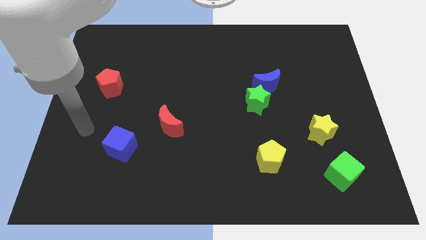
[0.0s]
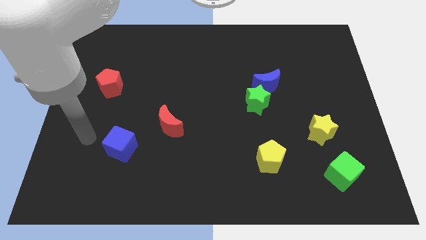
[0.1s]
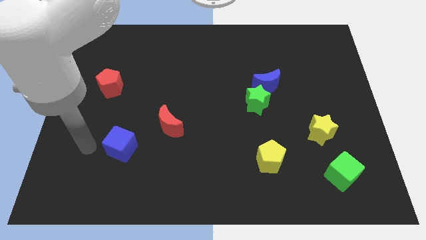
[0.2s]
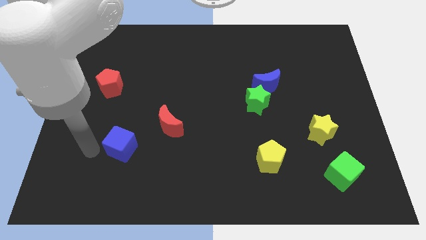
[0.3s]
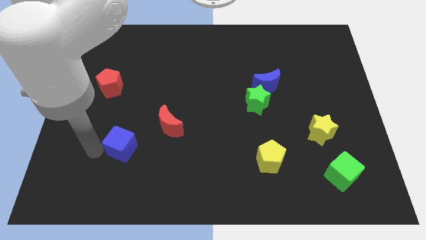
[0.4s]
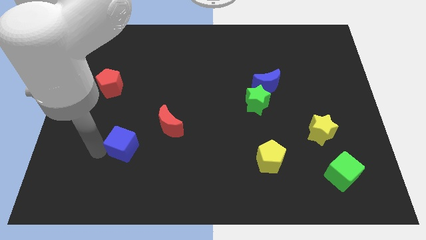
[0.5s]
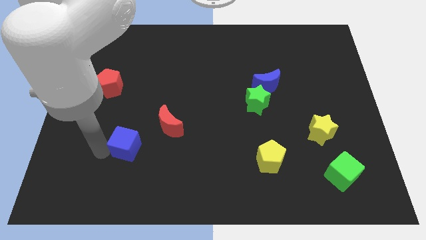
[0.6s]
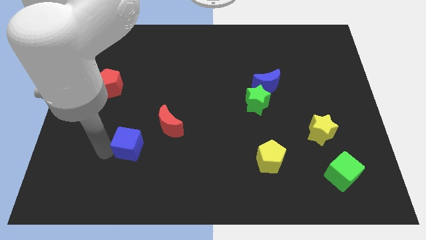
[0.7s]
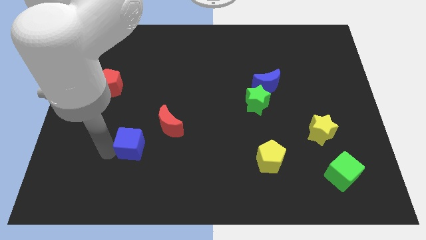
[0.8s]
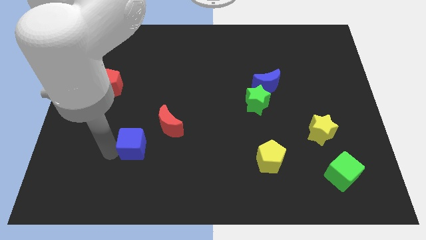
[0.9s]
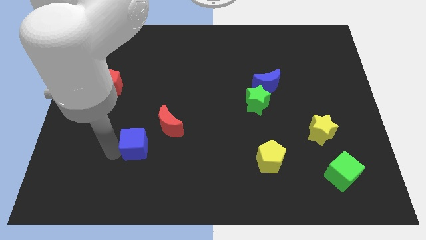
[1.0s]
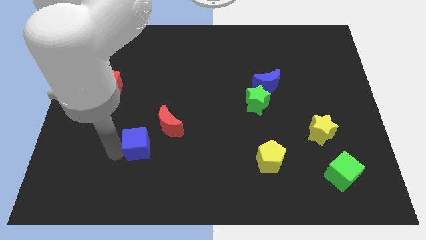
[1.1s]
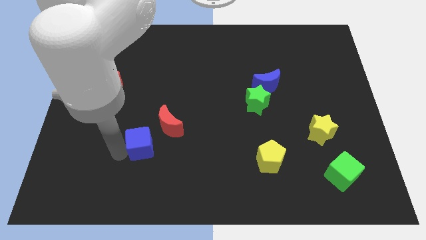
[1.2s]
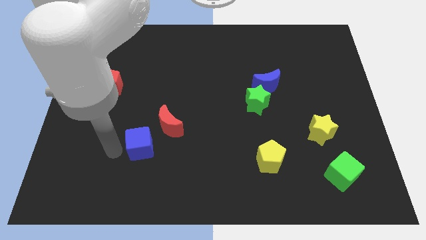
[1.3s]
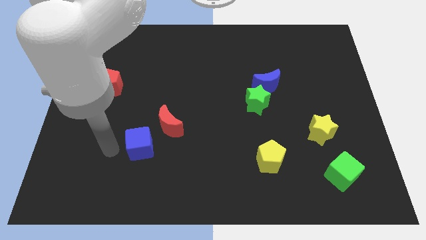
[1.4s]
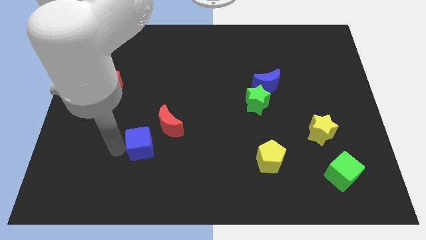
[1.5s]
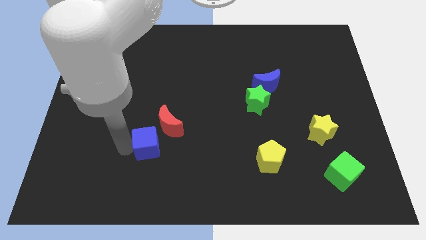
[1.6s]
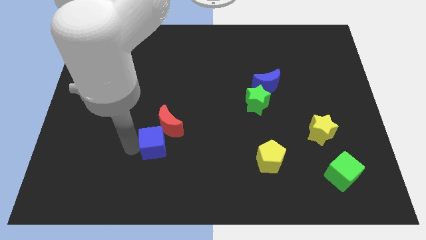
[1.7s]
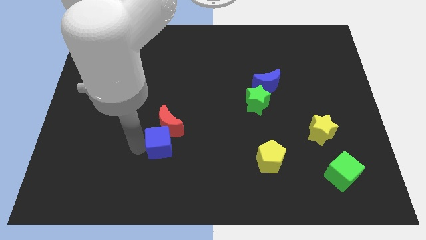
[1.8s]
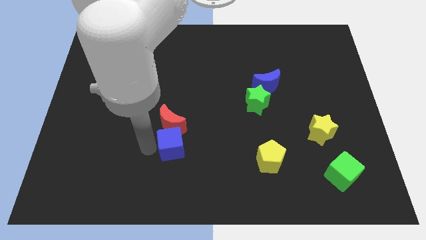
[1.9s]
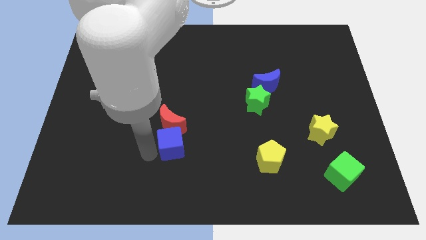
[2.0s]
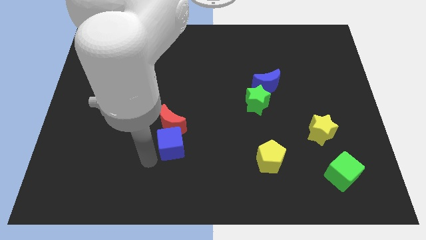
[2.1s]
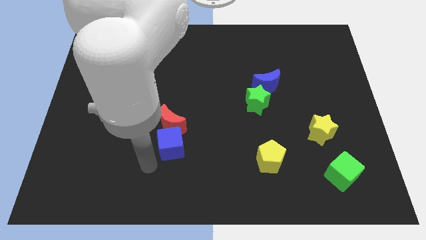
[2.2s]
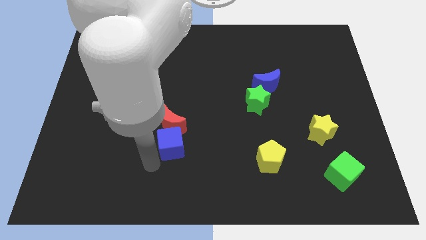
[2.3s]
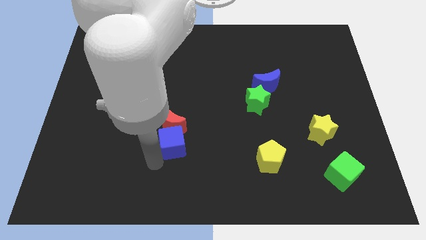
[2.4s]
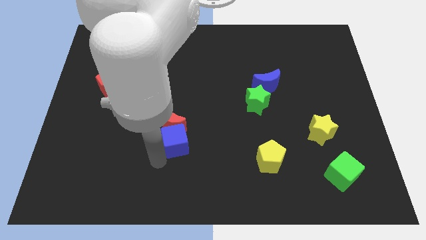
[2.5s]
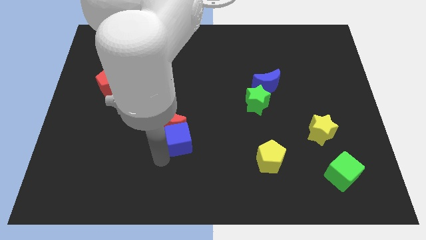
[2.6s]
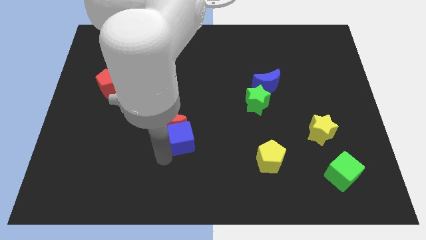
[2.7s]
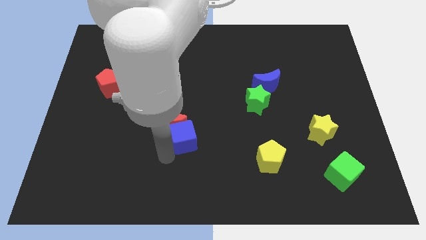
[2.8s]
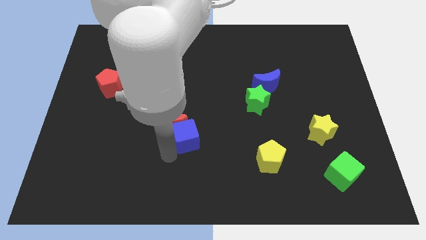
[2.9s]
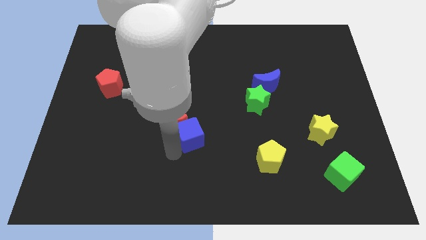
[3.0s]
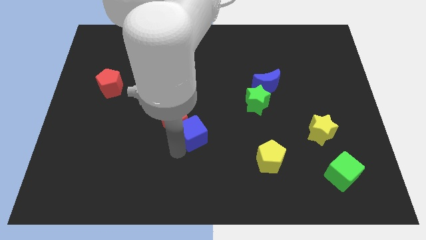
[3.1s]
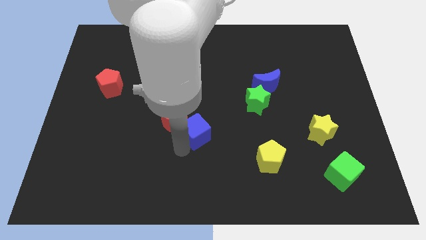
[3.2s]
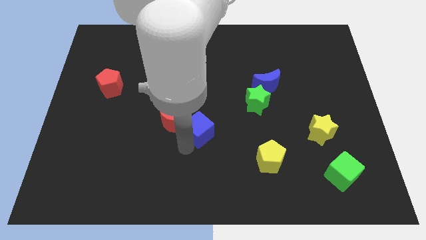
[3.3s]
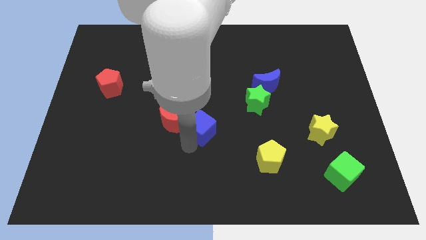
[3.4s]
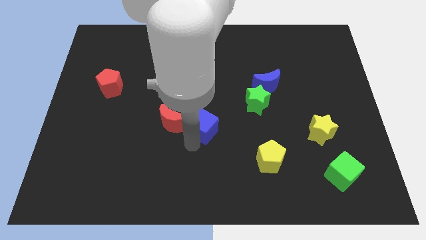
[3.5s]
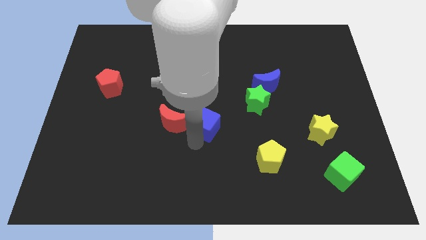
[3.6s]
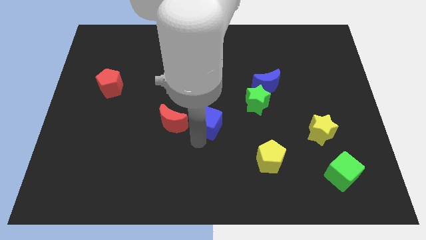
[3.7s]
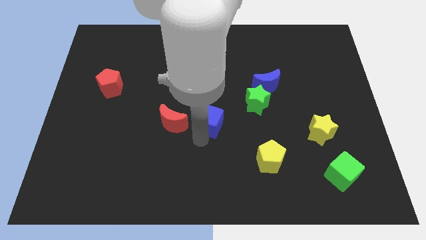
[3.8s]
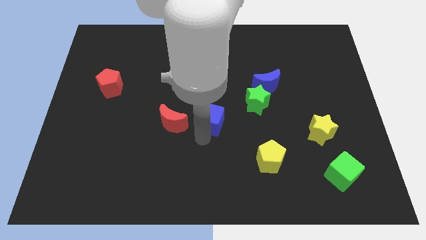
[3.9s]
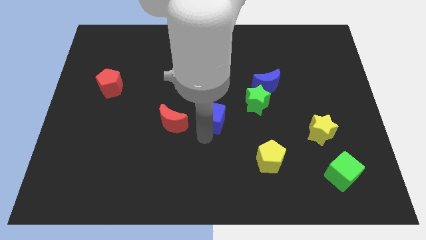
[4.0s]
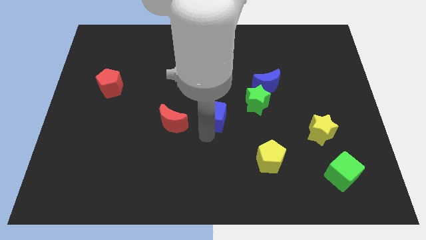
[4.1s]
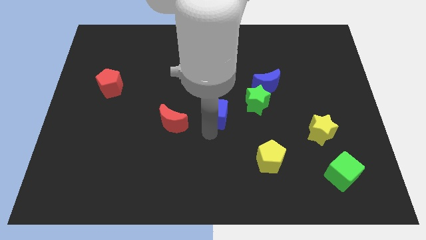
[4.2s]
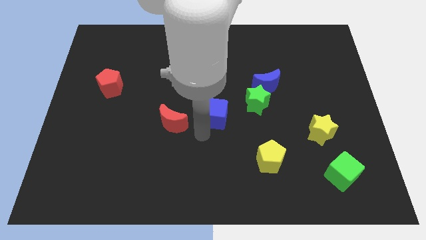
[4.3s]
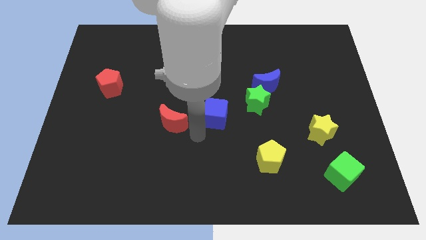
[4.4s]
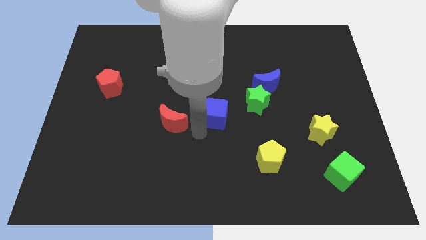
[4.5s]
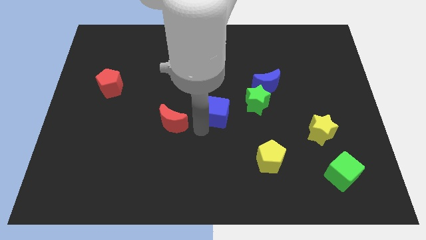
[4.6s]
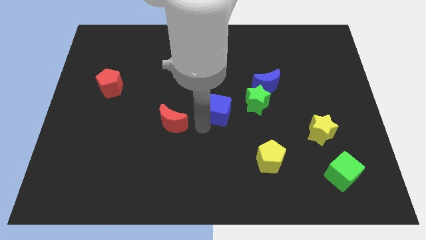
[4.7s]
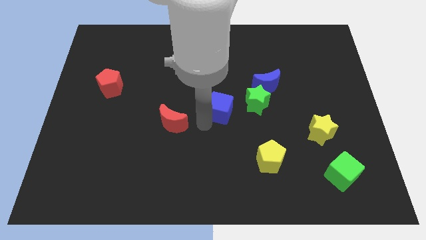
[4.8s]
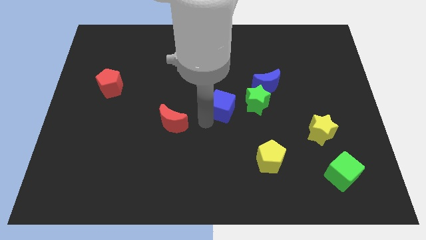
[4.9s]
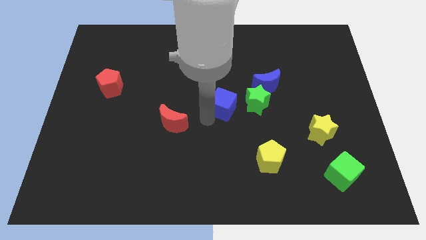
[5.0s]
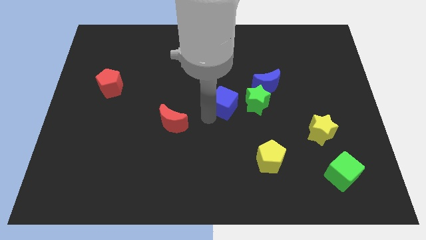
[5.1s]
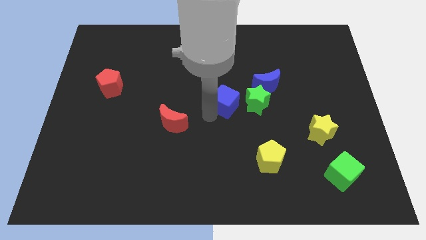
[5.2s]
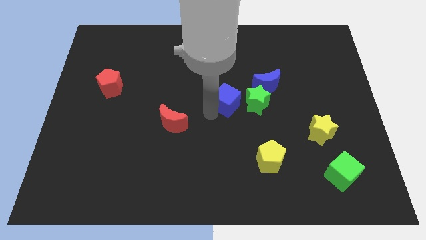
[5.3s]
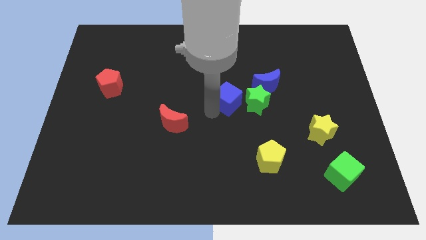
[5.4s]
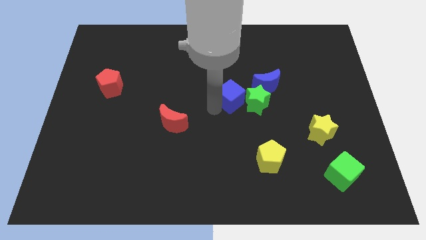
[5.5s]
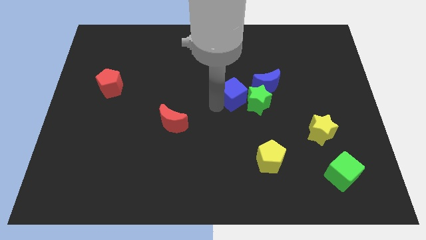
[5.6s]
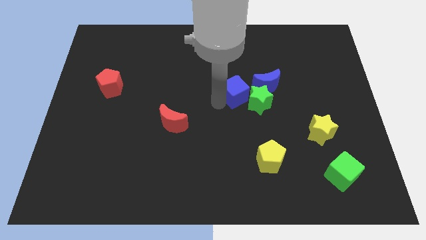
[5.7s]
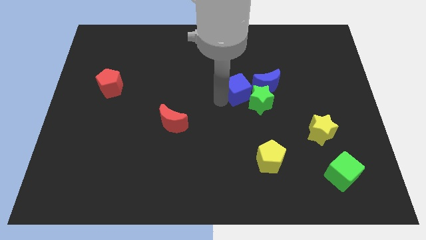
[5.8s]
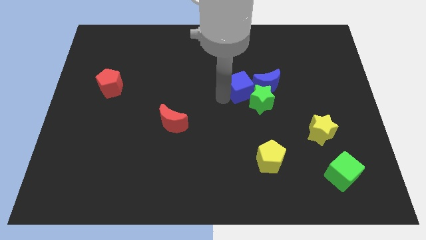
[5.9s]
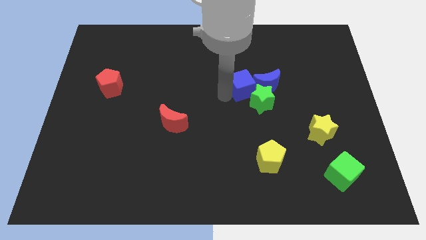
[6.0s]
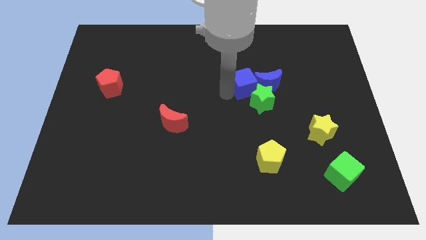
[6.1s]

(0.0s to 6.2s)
slide the blue cube to the blue moon

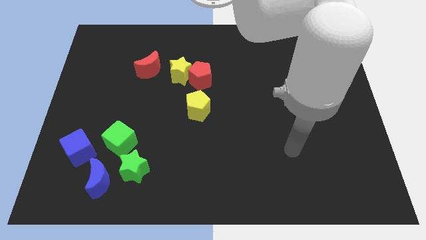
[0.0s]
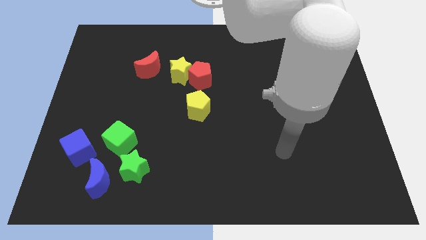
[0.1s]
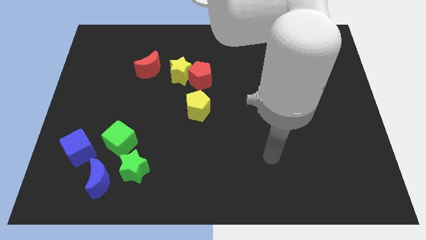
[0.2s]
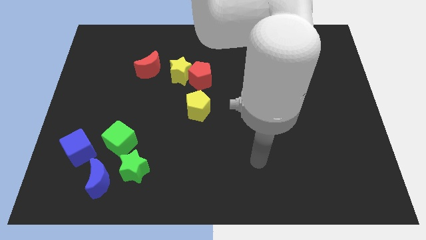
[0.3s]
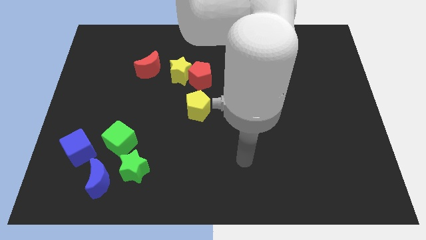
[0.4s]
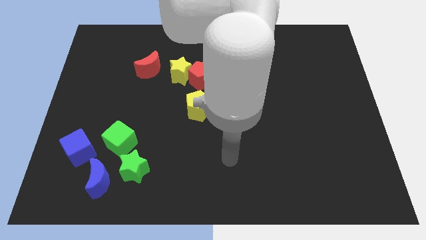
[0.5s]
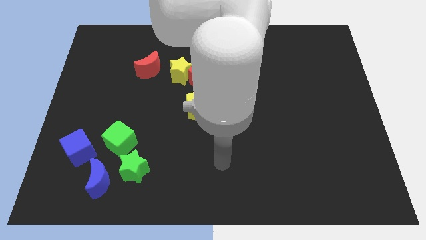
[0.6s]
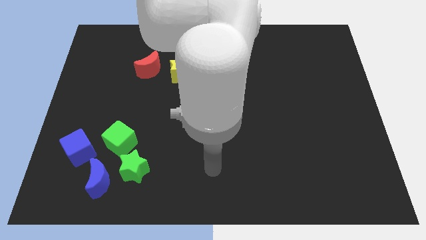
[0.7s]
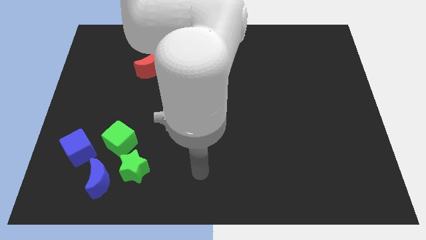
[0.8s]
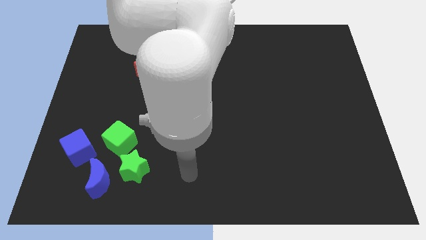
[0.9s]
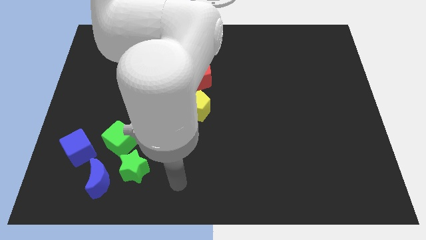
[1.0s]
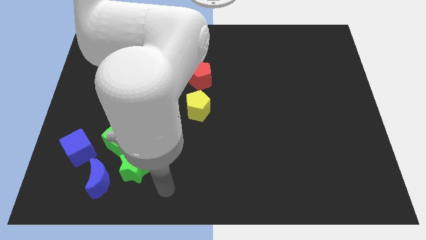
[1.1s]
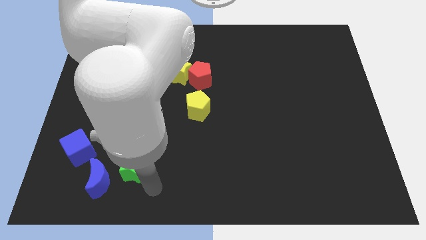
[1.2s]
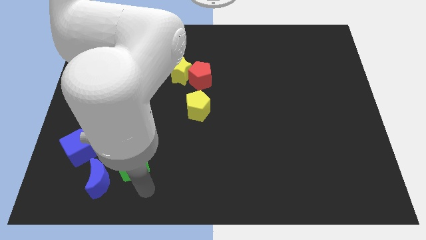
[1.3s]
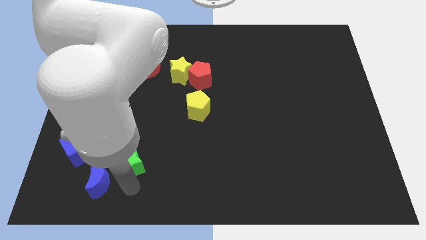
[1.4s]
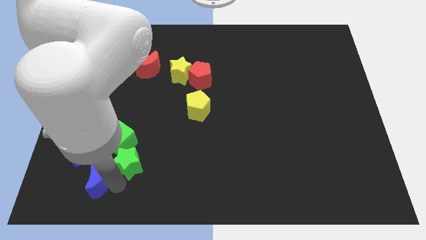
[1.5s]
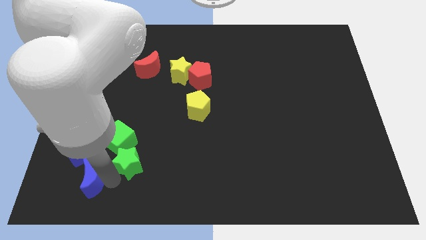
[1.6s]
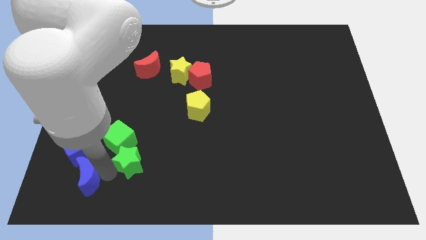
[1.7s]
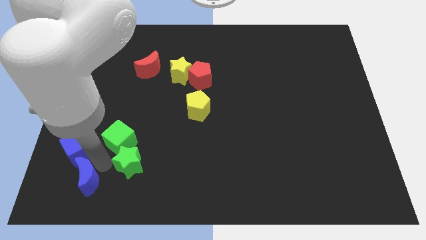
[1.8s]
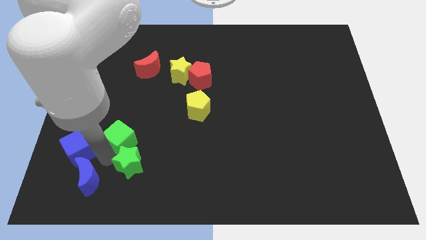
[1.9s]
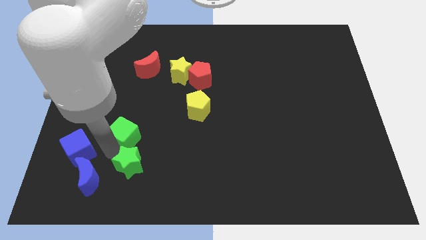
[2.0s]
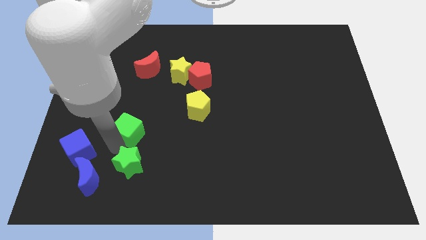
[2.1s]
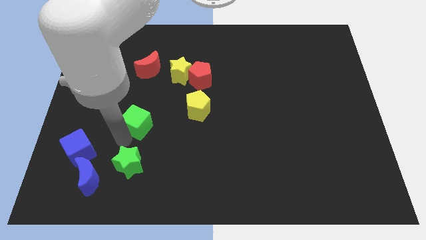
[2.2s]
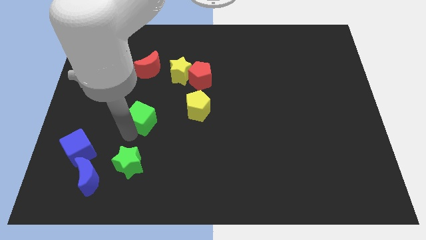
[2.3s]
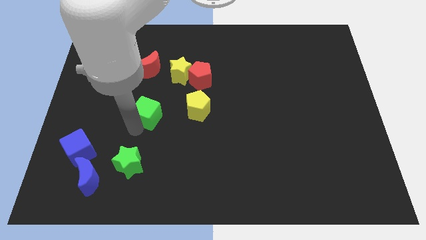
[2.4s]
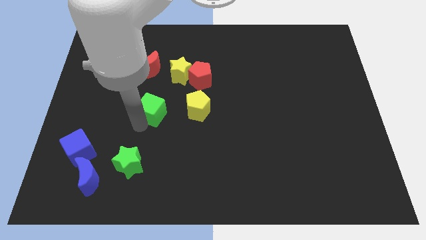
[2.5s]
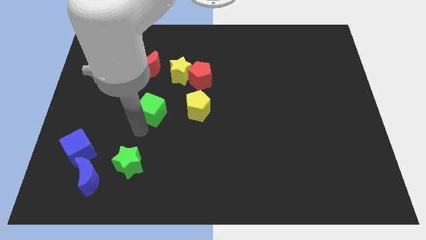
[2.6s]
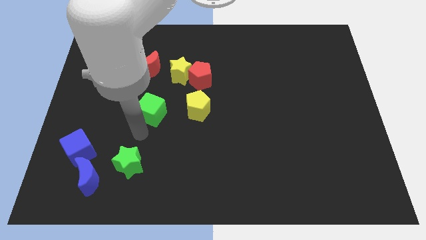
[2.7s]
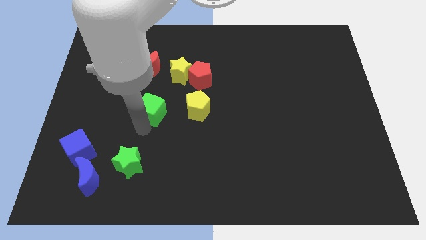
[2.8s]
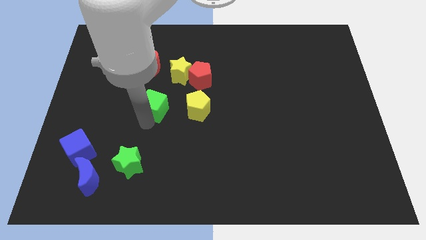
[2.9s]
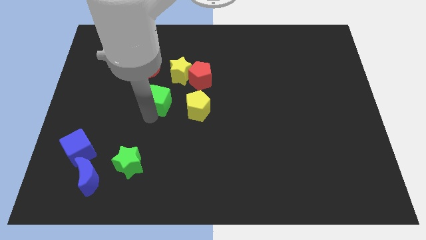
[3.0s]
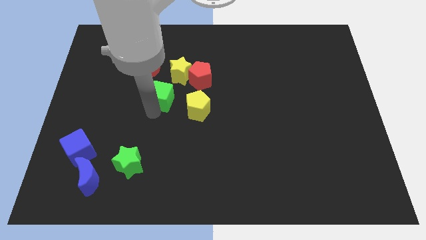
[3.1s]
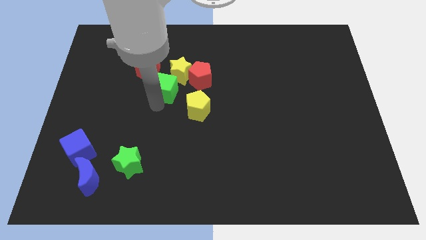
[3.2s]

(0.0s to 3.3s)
slide the green cube to the yellow star
